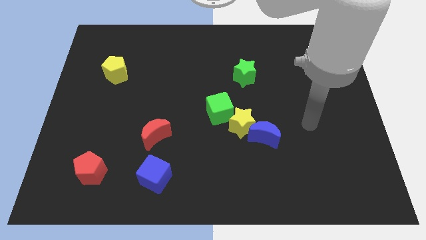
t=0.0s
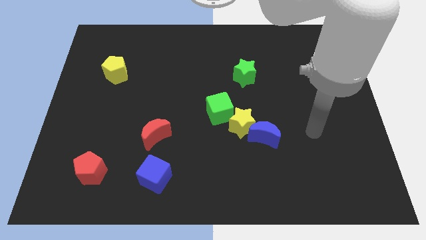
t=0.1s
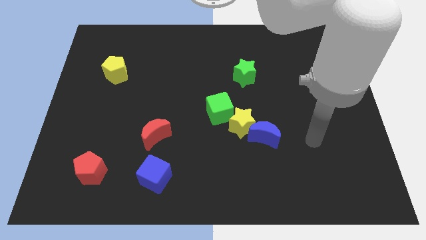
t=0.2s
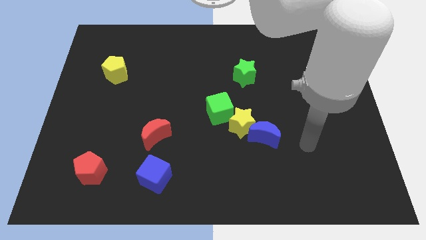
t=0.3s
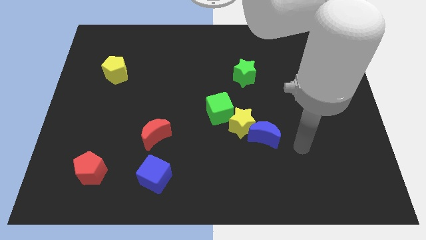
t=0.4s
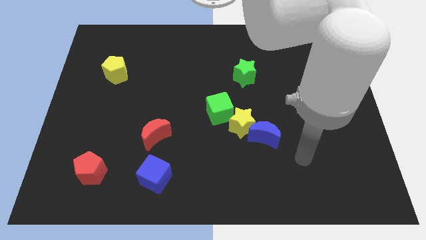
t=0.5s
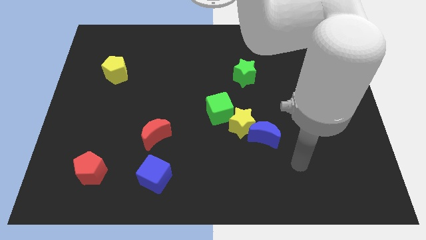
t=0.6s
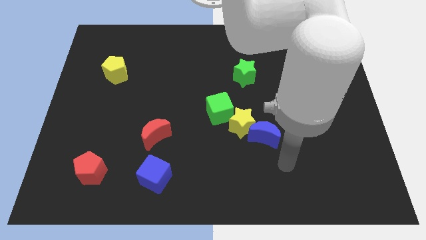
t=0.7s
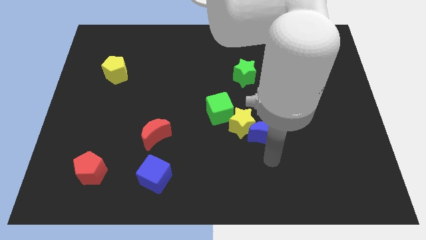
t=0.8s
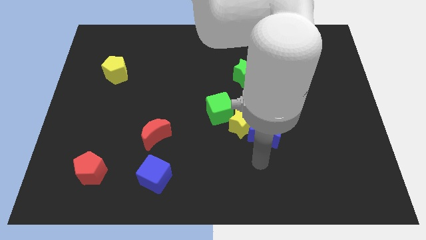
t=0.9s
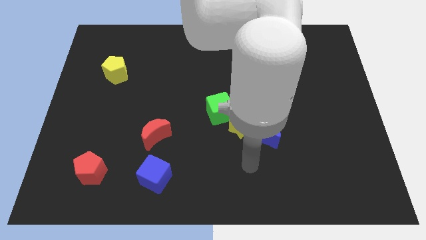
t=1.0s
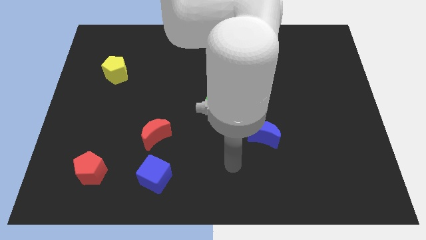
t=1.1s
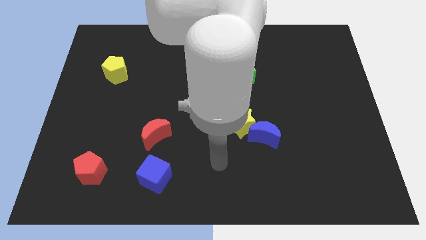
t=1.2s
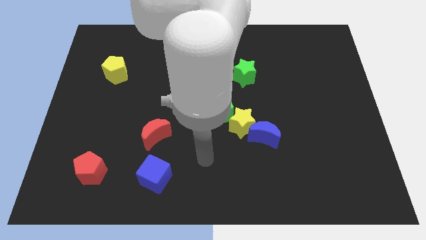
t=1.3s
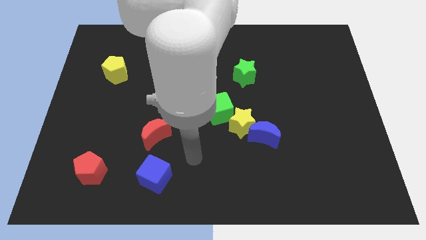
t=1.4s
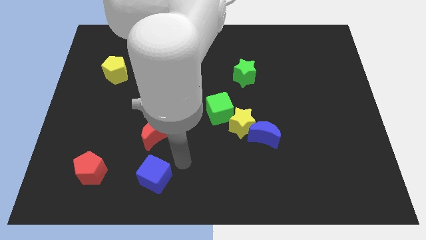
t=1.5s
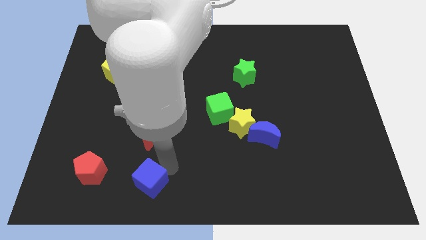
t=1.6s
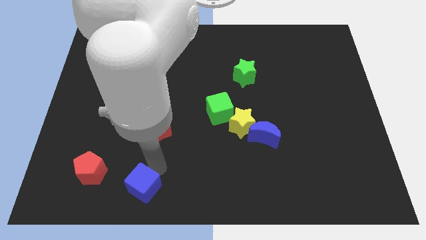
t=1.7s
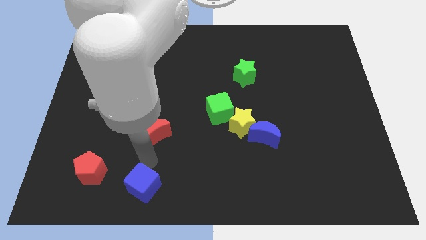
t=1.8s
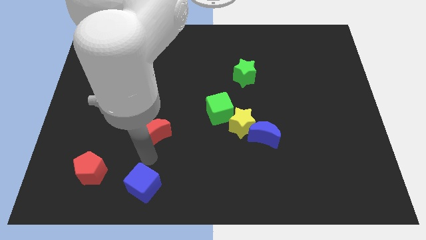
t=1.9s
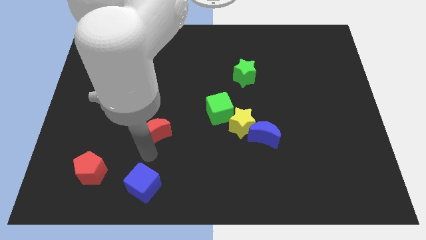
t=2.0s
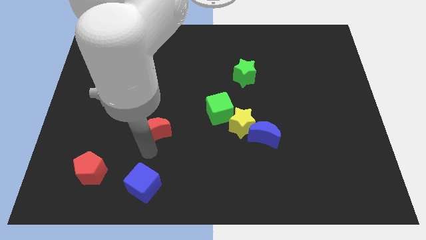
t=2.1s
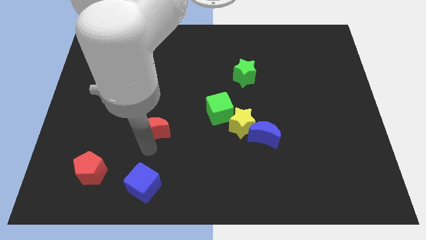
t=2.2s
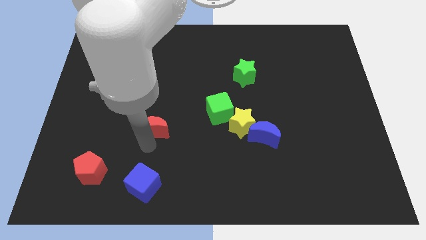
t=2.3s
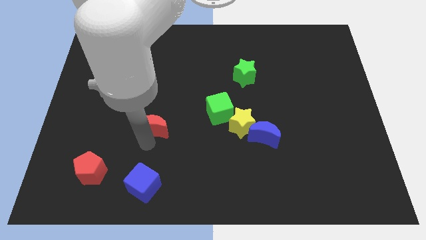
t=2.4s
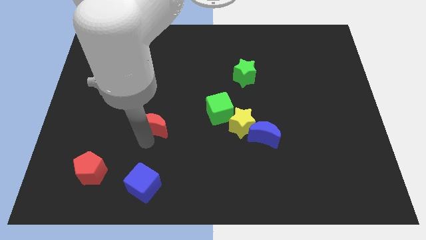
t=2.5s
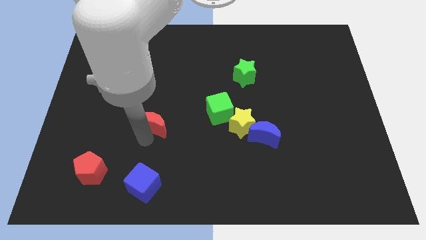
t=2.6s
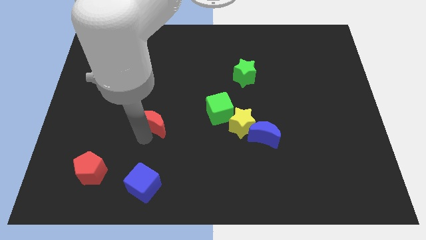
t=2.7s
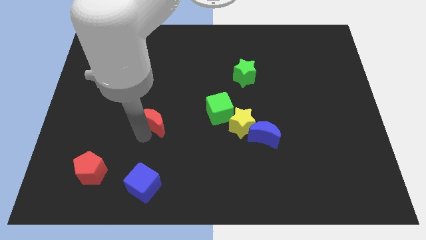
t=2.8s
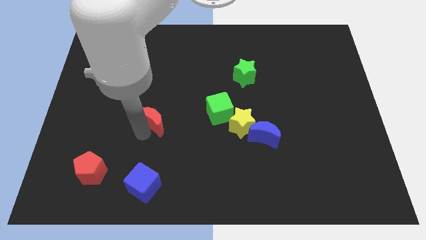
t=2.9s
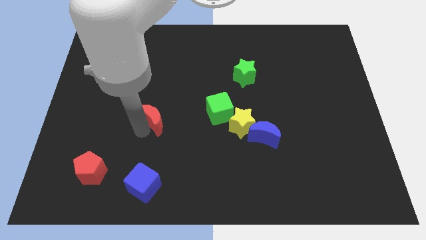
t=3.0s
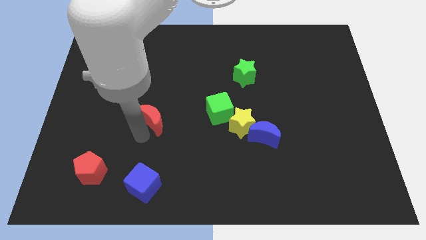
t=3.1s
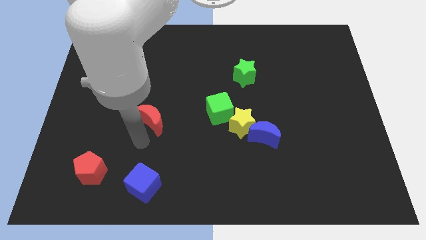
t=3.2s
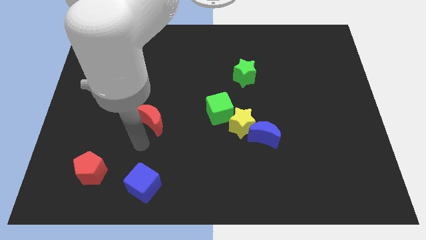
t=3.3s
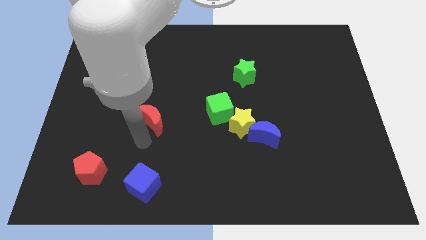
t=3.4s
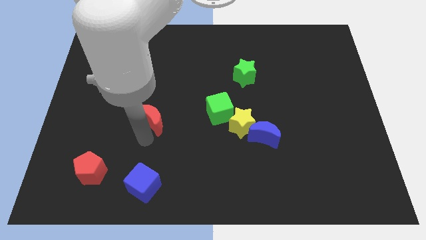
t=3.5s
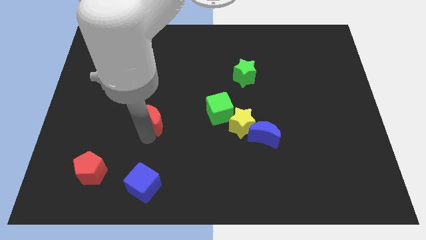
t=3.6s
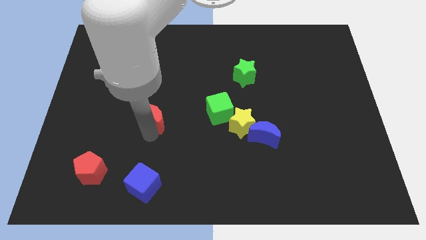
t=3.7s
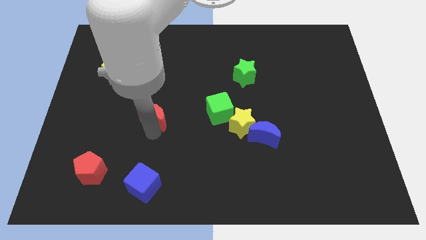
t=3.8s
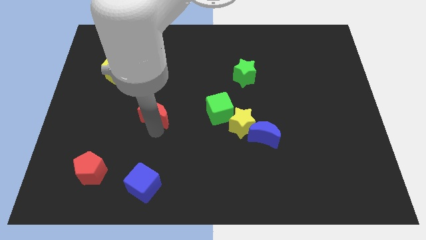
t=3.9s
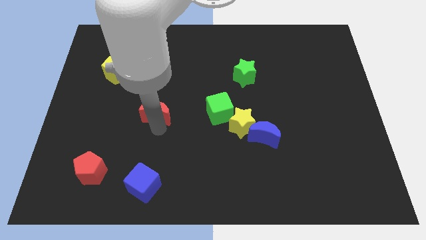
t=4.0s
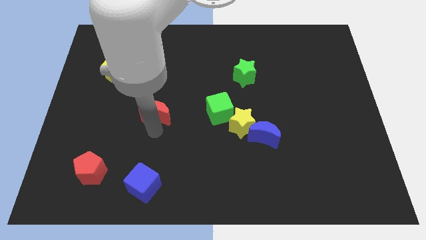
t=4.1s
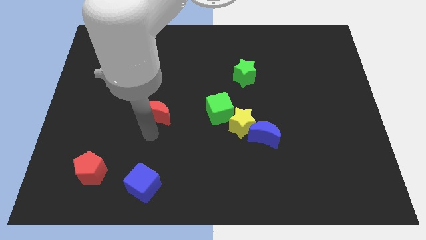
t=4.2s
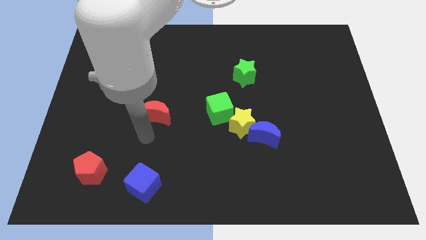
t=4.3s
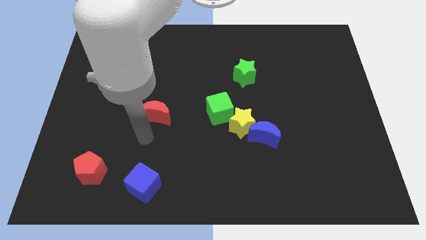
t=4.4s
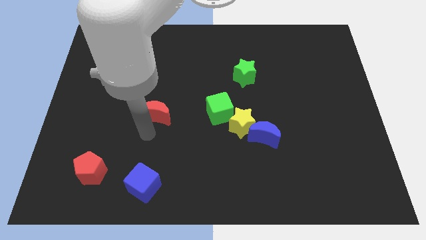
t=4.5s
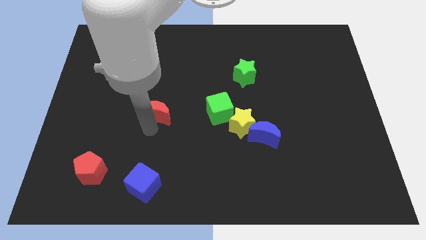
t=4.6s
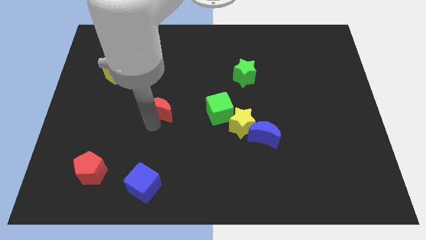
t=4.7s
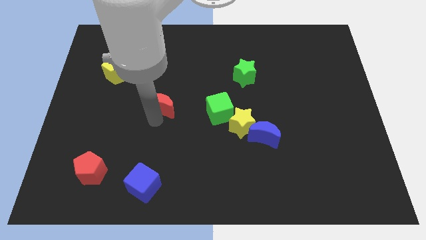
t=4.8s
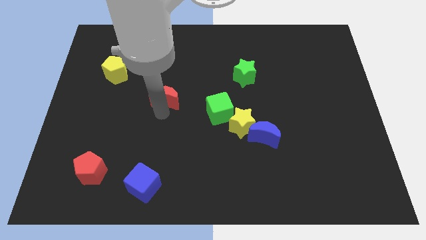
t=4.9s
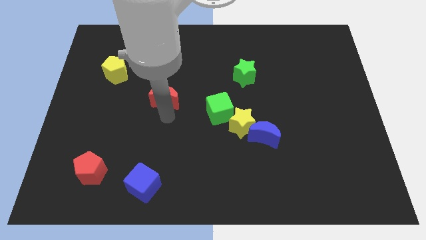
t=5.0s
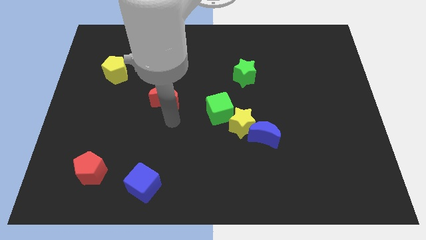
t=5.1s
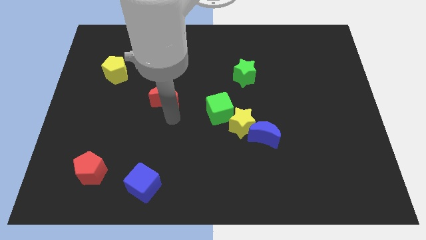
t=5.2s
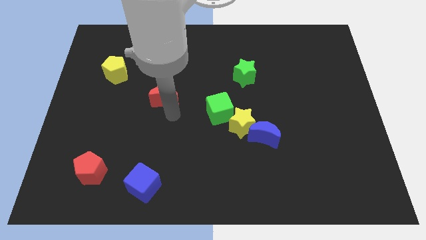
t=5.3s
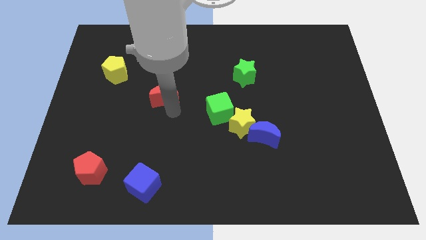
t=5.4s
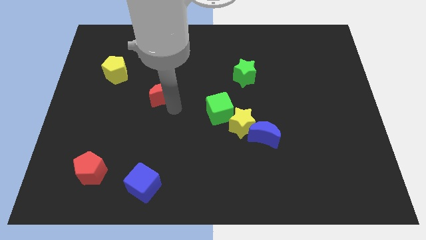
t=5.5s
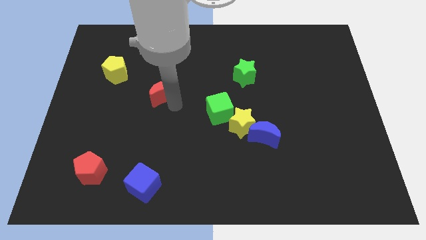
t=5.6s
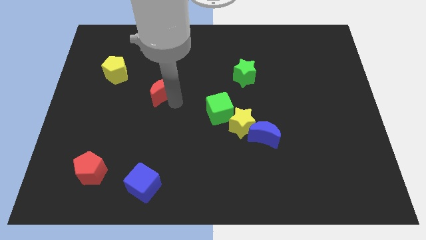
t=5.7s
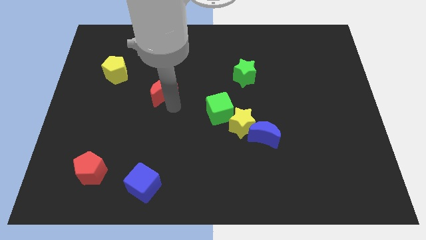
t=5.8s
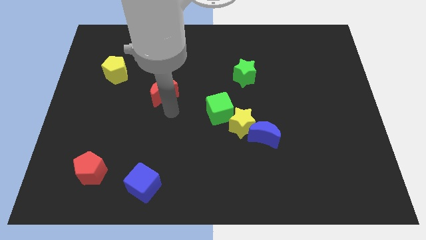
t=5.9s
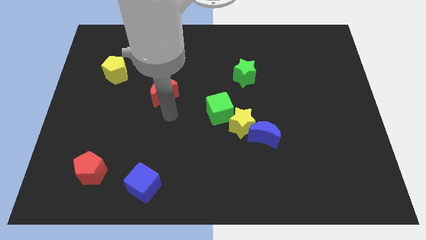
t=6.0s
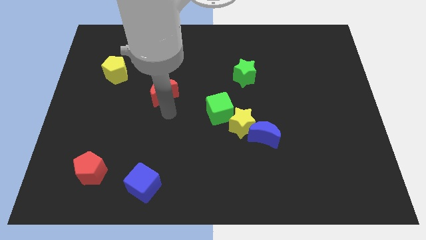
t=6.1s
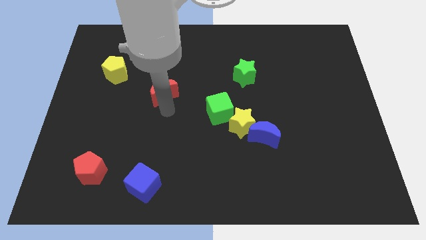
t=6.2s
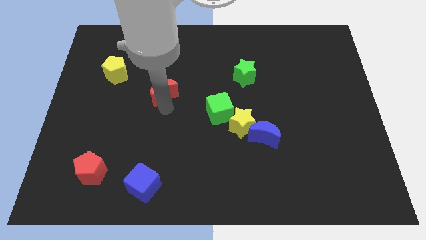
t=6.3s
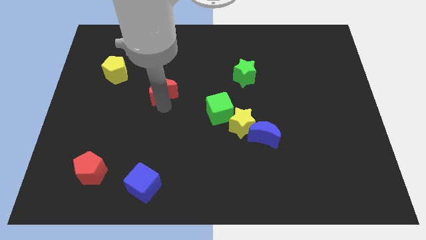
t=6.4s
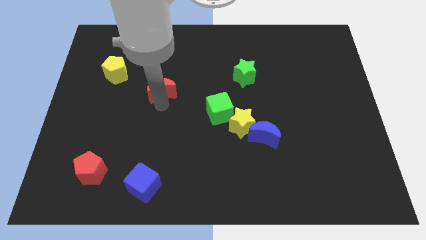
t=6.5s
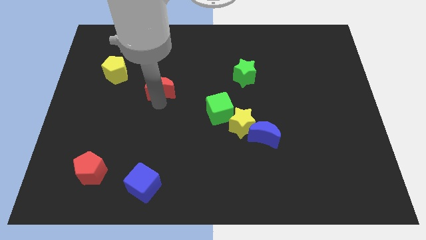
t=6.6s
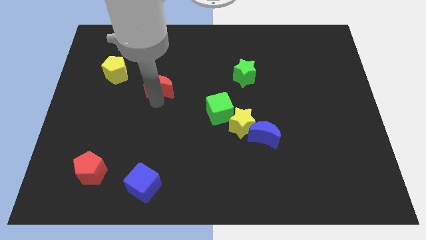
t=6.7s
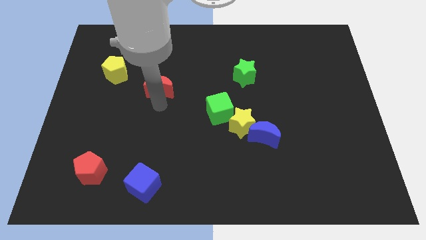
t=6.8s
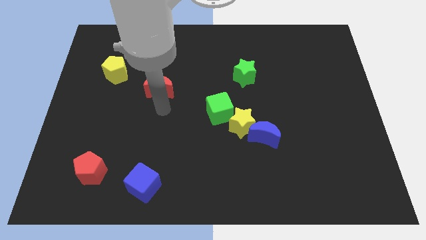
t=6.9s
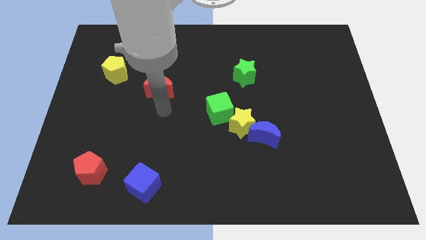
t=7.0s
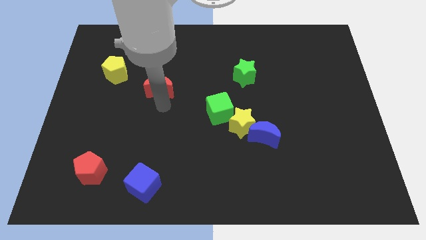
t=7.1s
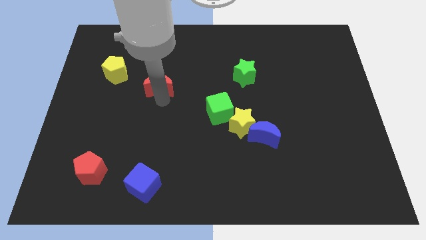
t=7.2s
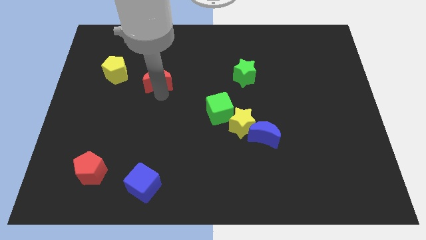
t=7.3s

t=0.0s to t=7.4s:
move the red moon to the right side of the yellow pentagon

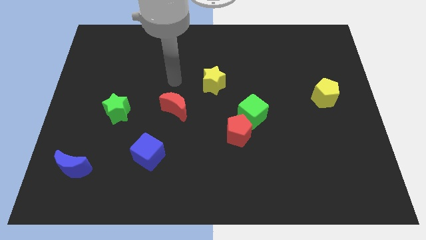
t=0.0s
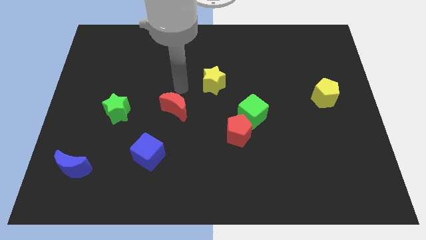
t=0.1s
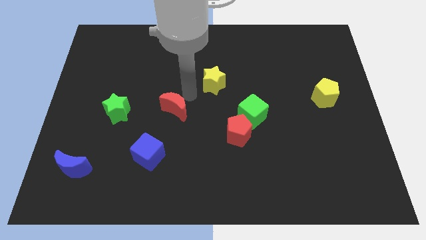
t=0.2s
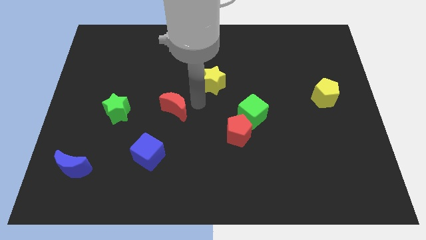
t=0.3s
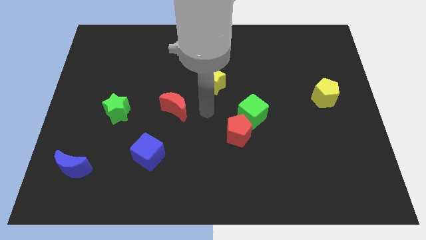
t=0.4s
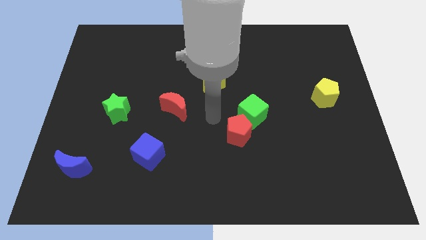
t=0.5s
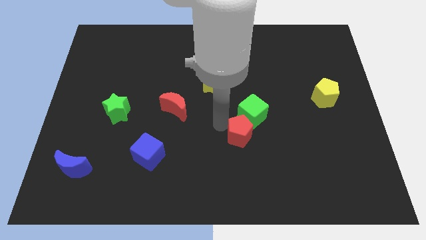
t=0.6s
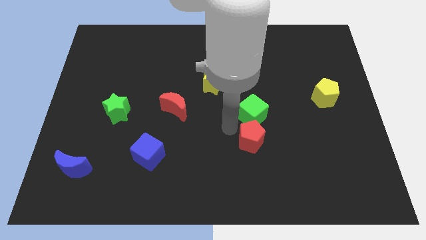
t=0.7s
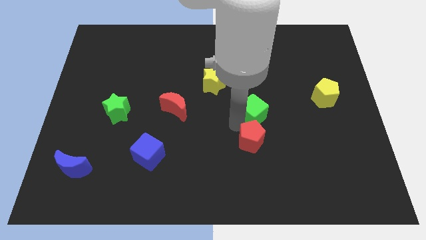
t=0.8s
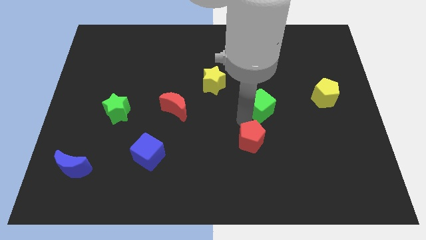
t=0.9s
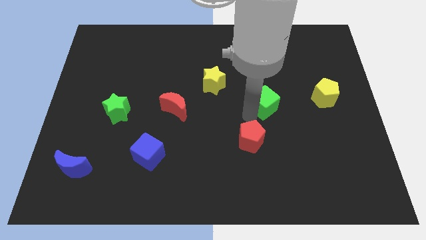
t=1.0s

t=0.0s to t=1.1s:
slide the green cube just left of the yellow pentagon
